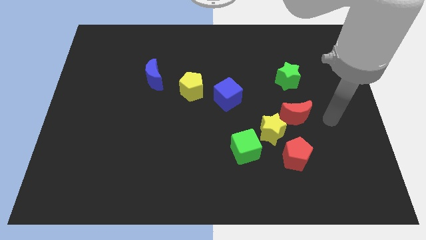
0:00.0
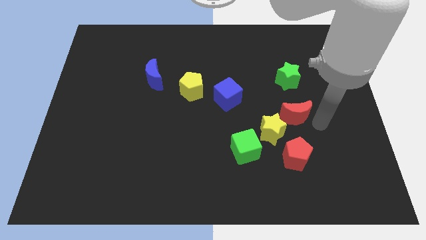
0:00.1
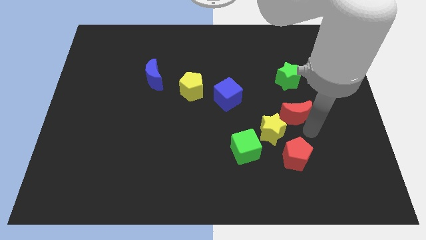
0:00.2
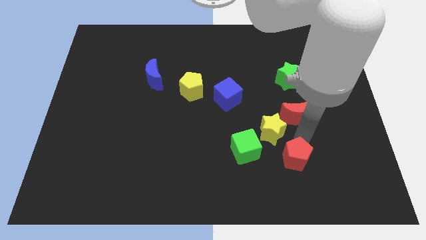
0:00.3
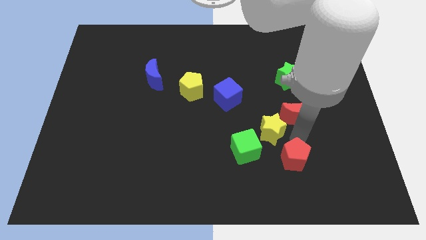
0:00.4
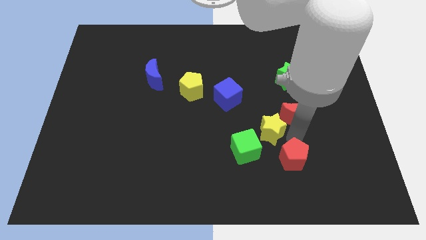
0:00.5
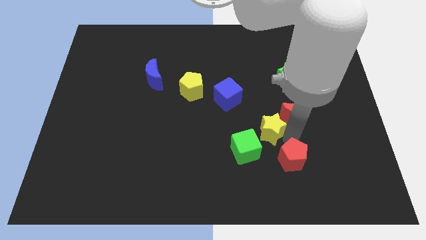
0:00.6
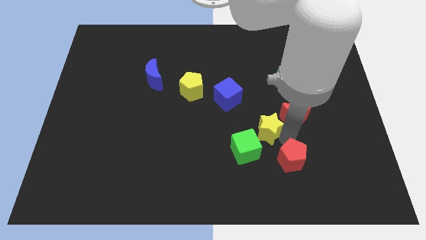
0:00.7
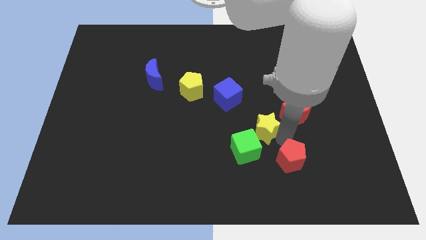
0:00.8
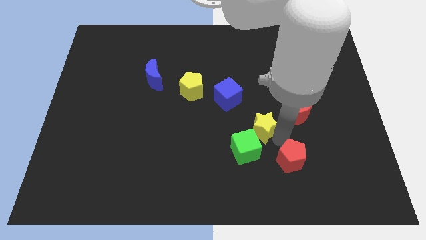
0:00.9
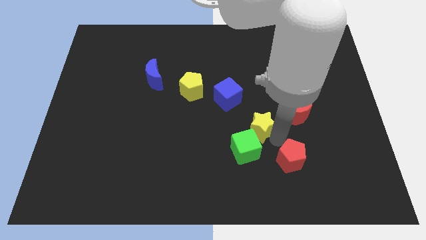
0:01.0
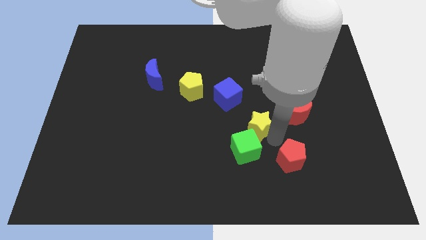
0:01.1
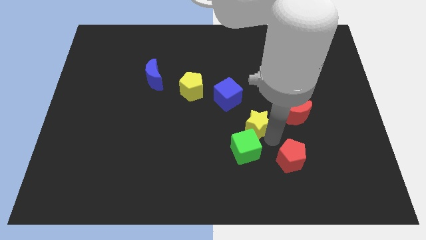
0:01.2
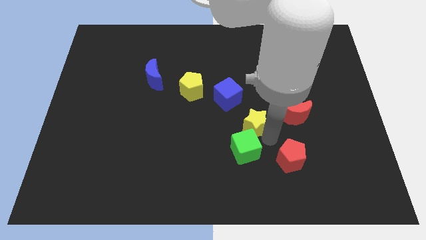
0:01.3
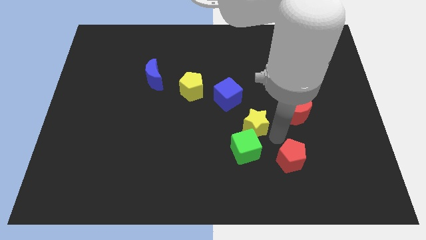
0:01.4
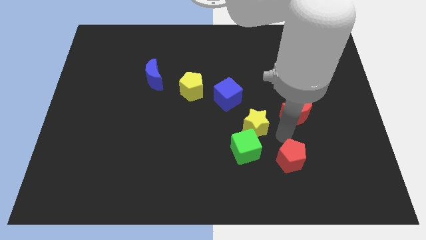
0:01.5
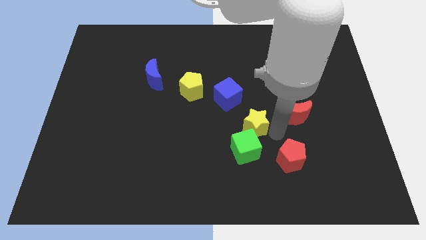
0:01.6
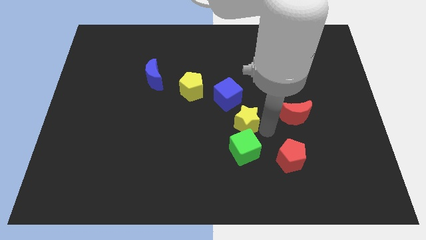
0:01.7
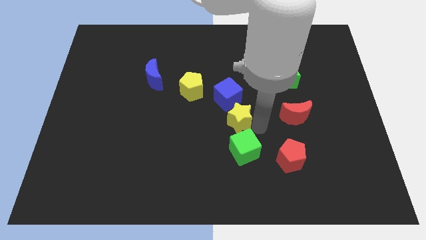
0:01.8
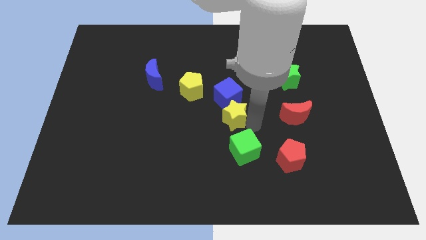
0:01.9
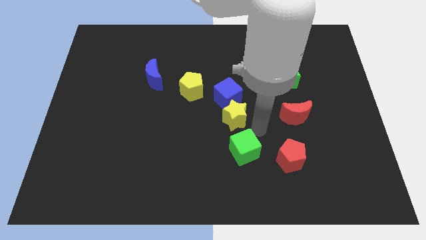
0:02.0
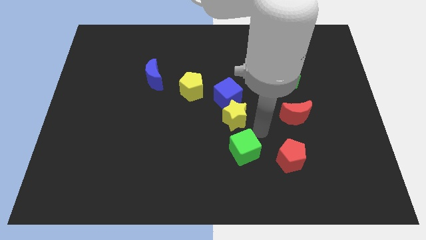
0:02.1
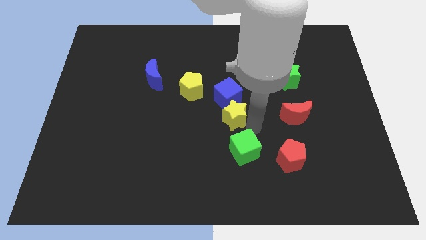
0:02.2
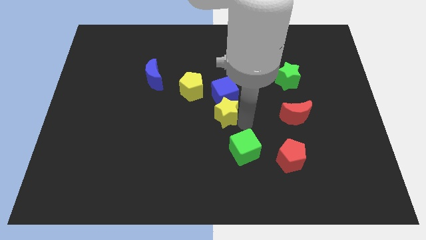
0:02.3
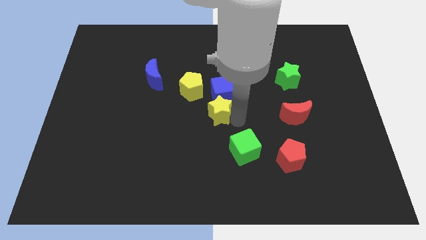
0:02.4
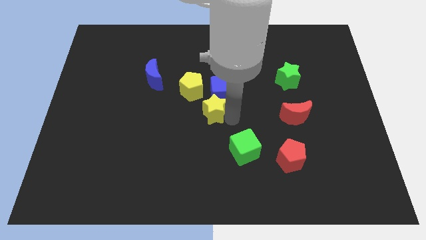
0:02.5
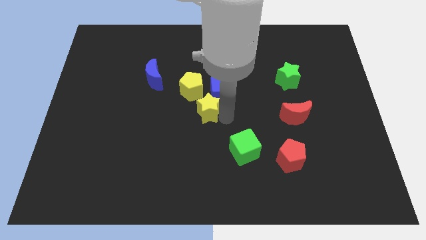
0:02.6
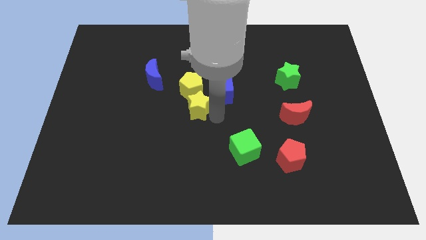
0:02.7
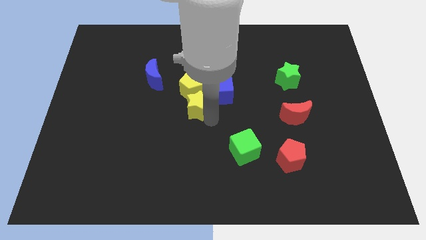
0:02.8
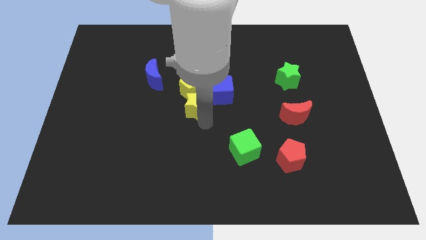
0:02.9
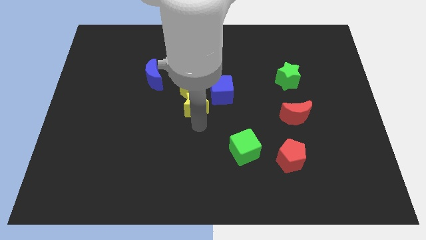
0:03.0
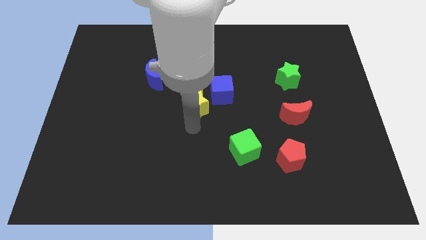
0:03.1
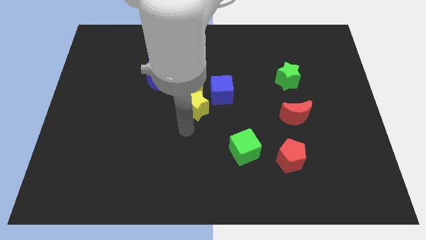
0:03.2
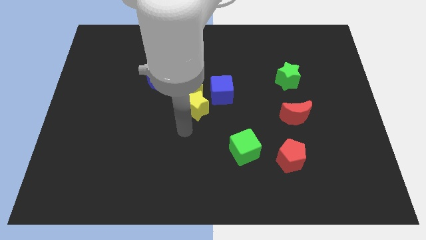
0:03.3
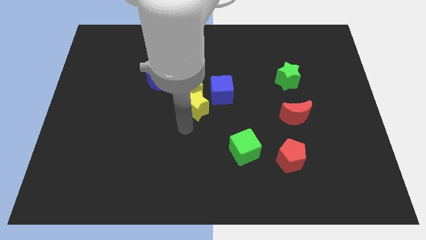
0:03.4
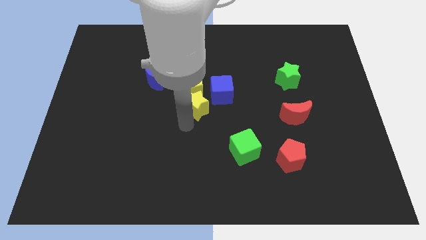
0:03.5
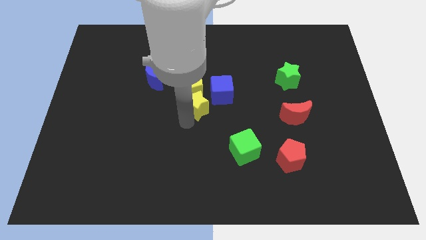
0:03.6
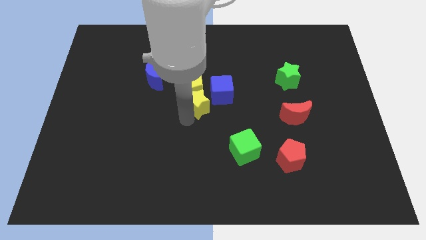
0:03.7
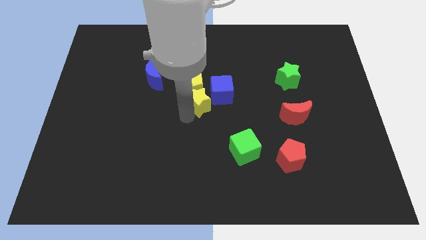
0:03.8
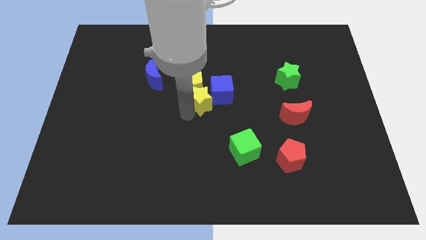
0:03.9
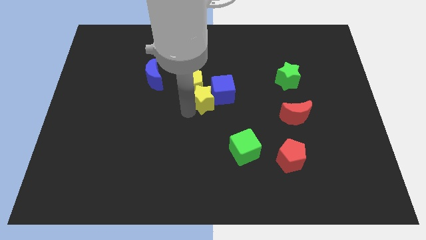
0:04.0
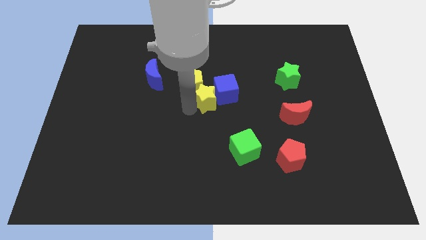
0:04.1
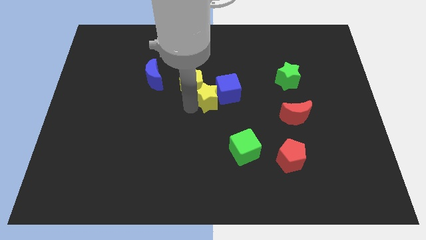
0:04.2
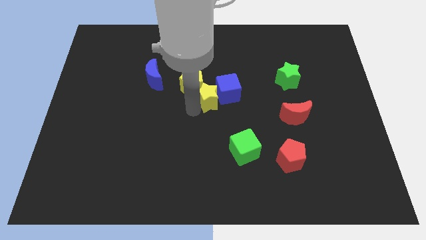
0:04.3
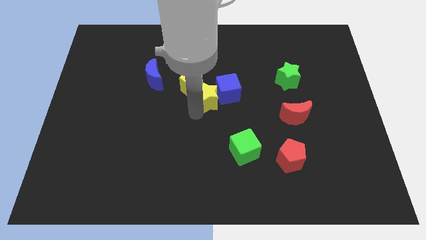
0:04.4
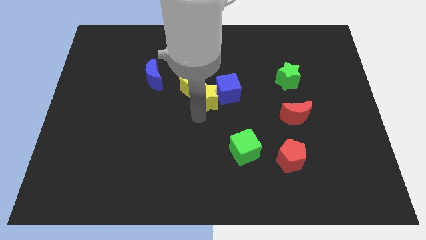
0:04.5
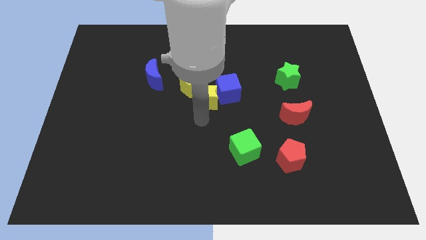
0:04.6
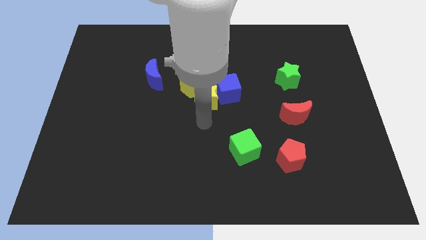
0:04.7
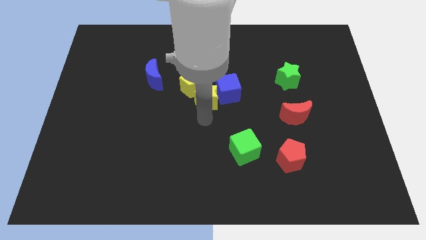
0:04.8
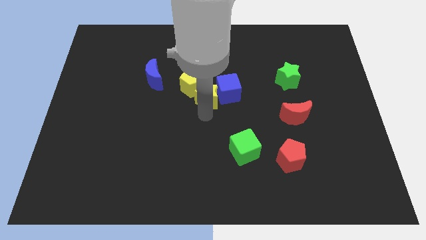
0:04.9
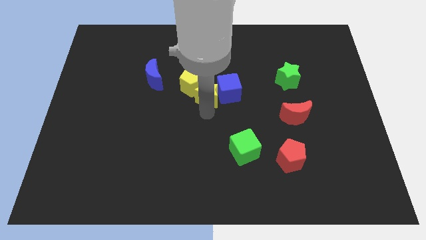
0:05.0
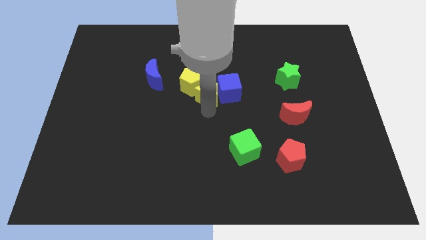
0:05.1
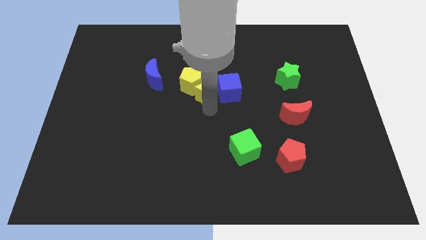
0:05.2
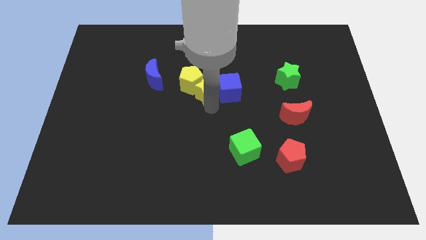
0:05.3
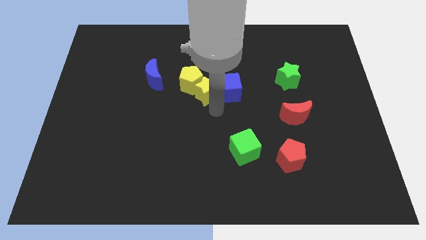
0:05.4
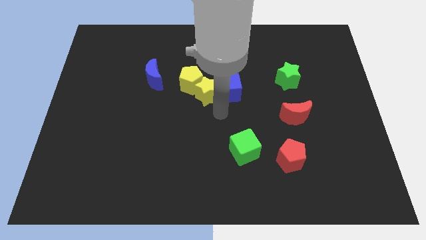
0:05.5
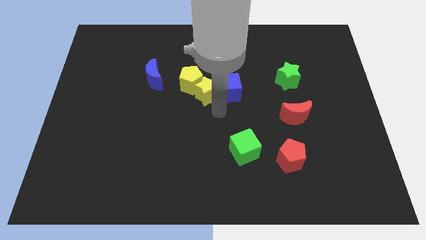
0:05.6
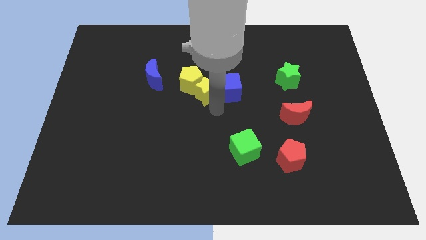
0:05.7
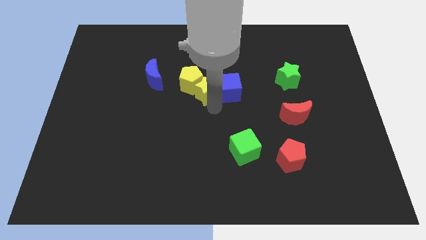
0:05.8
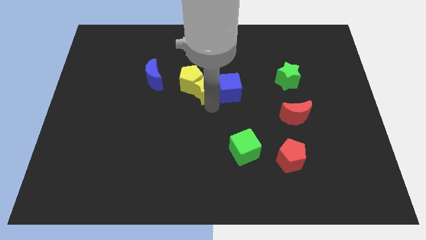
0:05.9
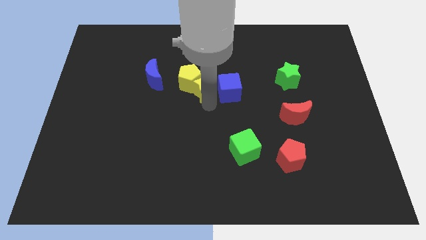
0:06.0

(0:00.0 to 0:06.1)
move the yellow star to the right side of the blue moon

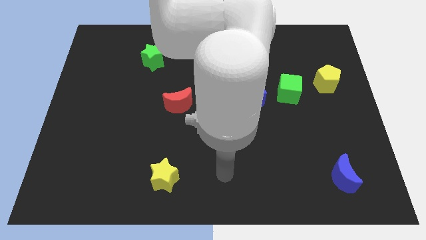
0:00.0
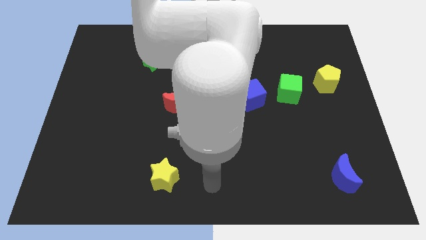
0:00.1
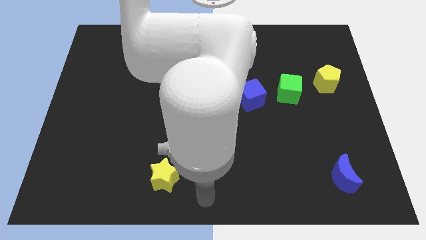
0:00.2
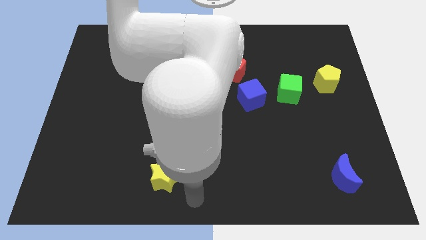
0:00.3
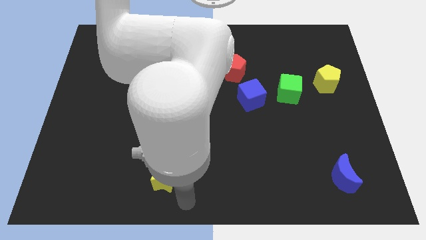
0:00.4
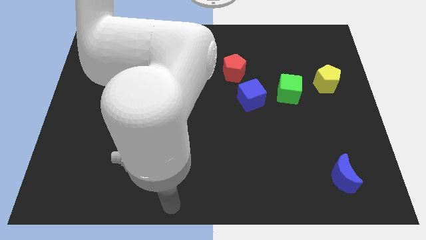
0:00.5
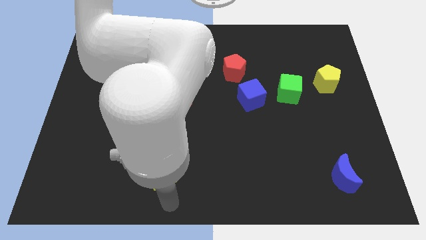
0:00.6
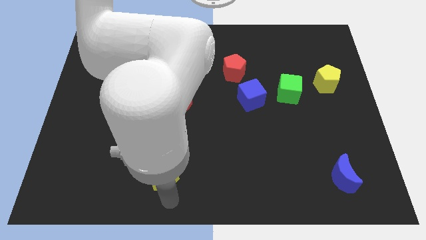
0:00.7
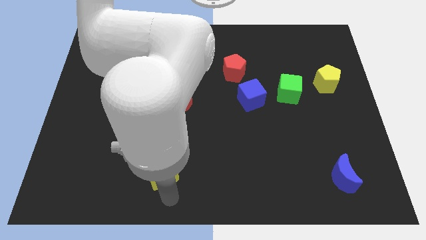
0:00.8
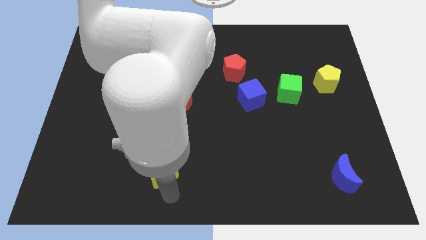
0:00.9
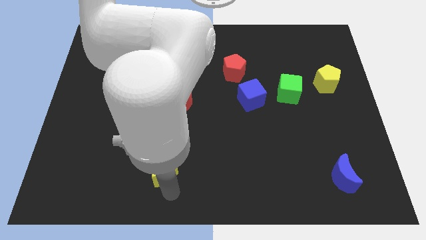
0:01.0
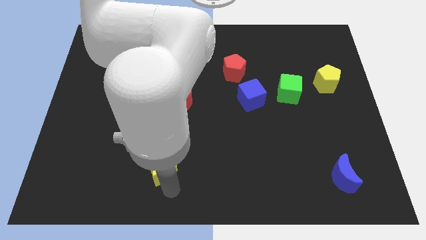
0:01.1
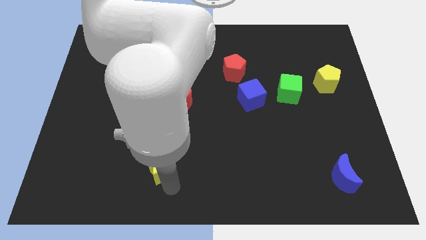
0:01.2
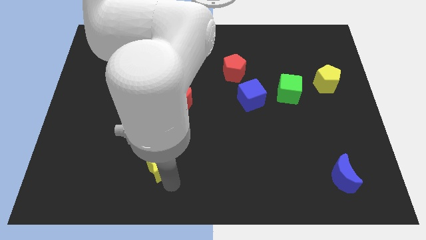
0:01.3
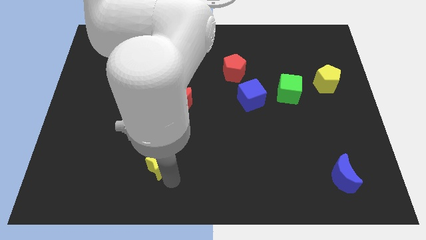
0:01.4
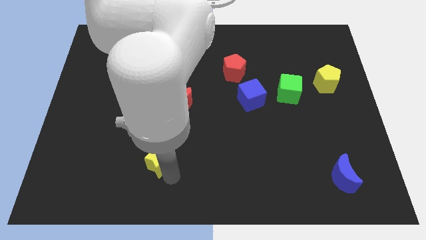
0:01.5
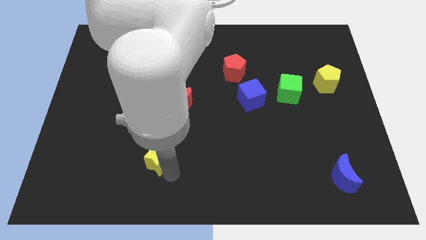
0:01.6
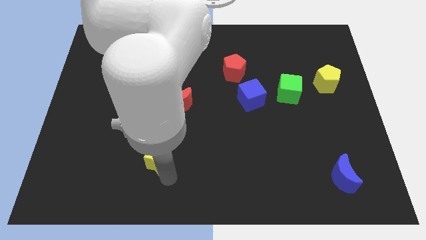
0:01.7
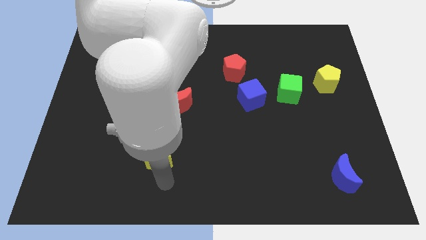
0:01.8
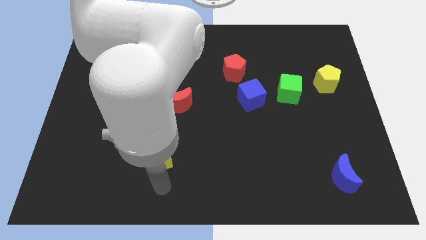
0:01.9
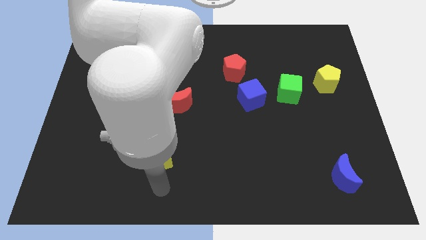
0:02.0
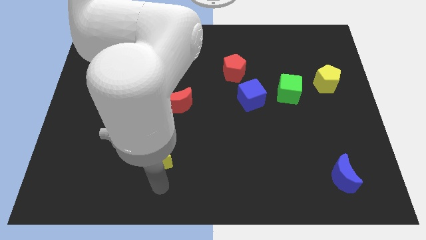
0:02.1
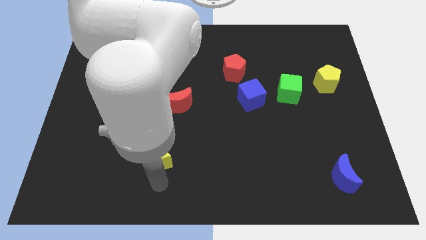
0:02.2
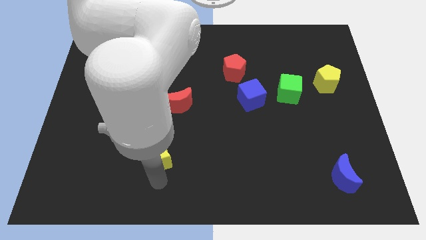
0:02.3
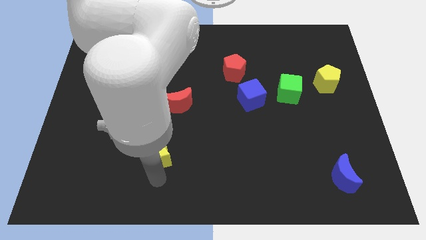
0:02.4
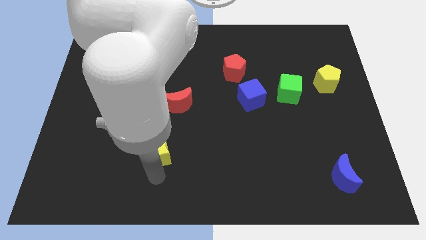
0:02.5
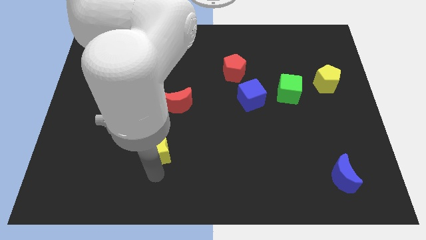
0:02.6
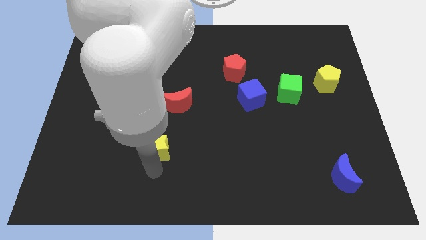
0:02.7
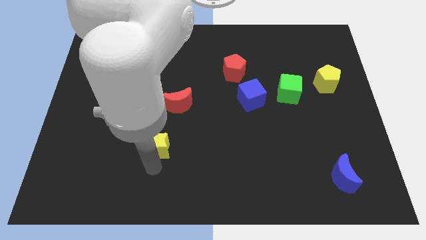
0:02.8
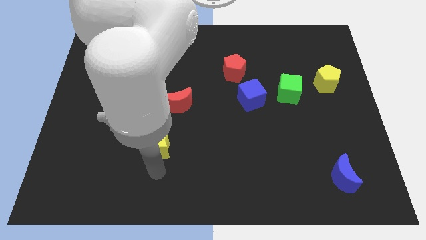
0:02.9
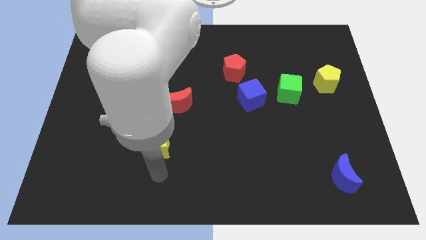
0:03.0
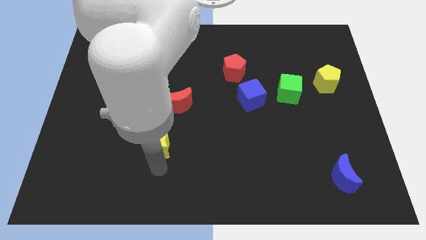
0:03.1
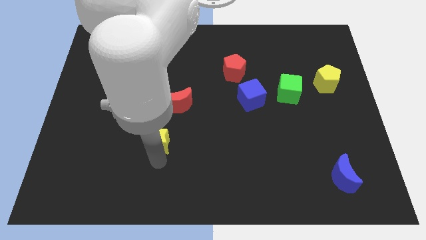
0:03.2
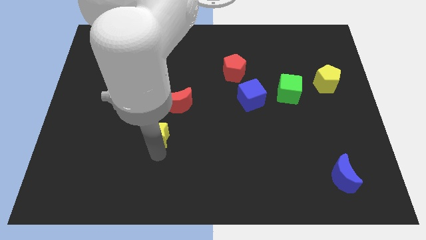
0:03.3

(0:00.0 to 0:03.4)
push the yellow star to the bottom left side of the red moon
